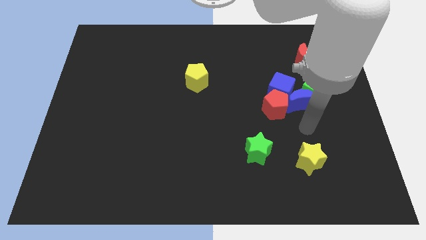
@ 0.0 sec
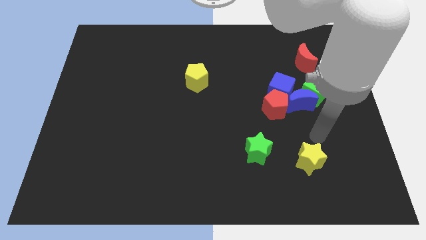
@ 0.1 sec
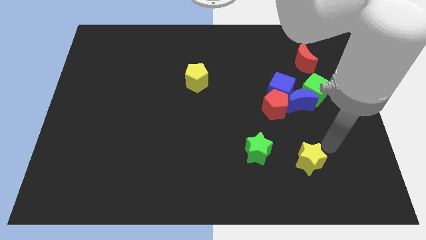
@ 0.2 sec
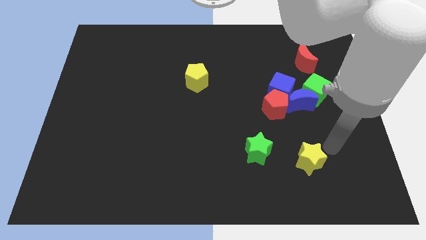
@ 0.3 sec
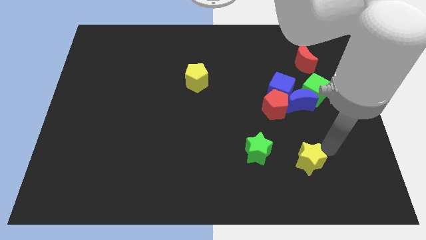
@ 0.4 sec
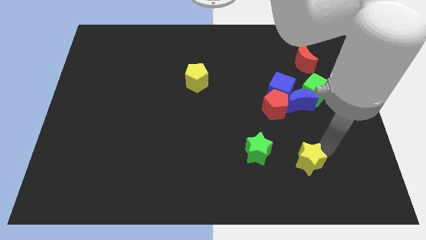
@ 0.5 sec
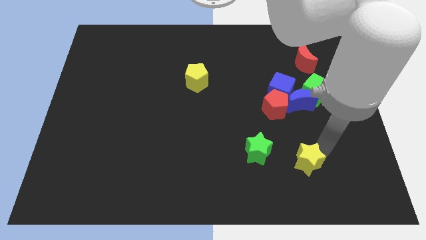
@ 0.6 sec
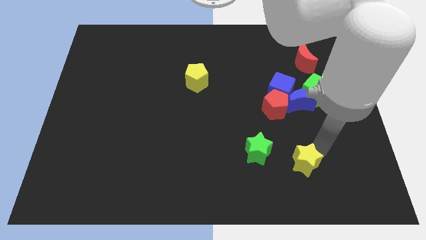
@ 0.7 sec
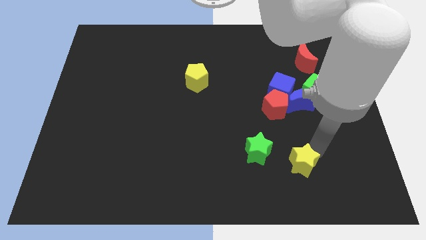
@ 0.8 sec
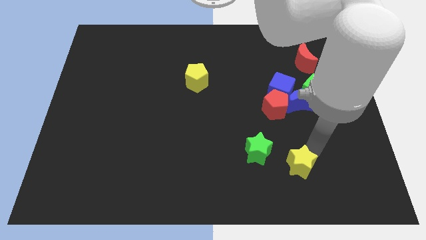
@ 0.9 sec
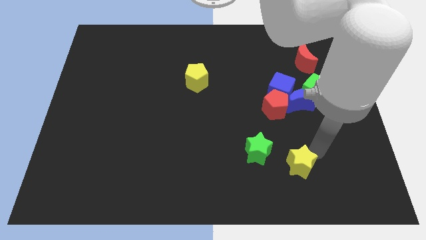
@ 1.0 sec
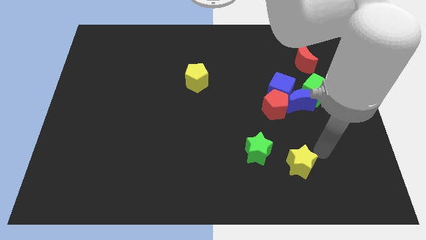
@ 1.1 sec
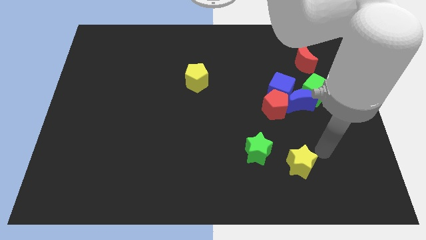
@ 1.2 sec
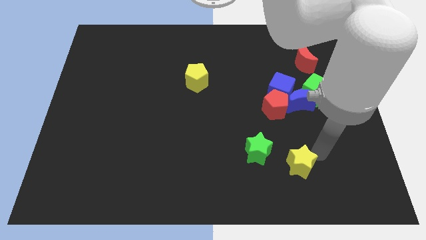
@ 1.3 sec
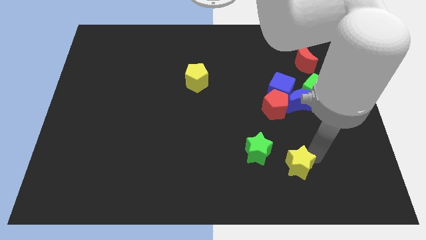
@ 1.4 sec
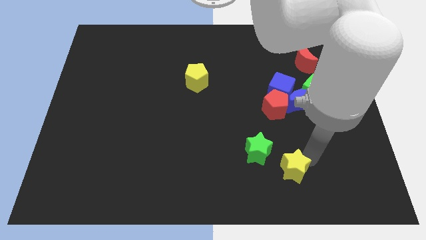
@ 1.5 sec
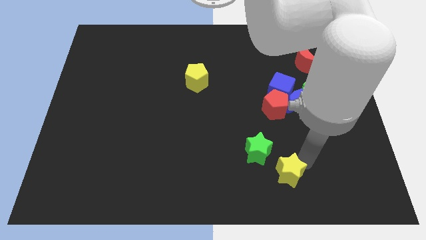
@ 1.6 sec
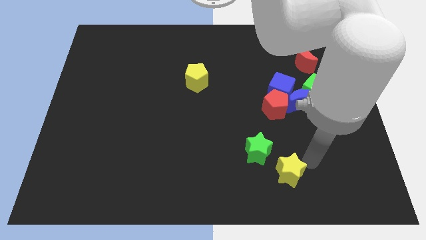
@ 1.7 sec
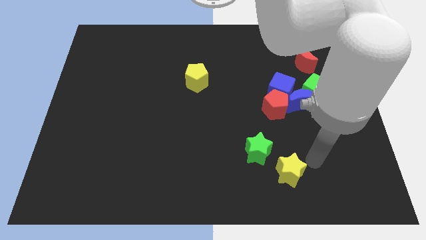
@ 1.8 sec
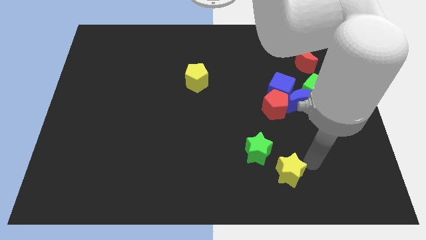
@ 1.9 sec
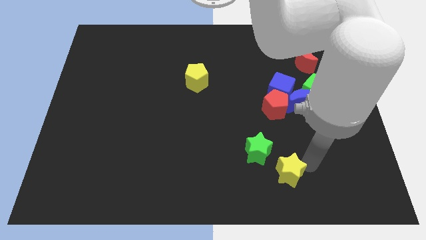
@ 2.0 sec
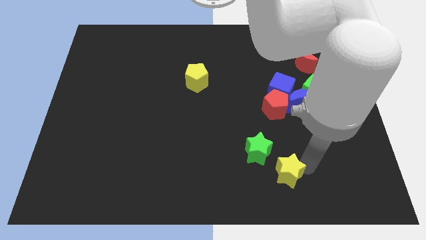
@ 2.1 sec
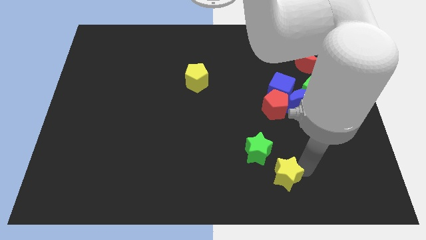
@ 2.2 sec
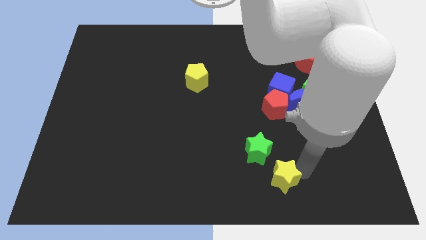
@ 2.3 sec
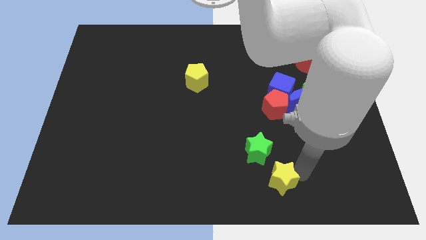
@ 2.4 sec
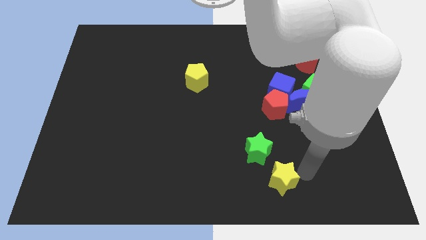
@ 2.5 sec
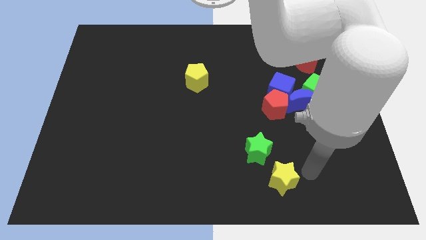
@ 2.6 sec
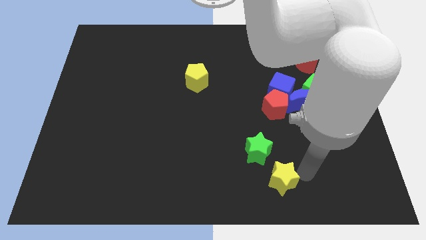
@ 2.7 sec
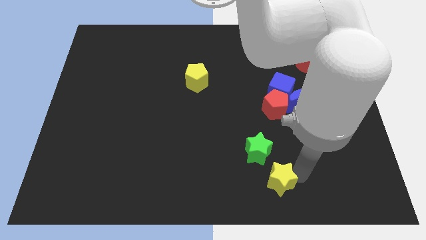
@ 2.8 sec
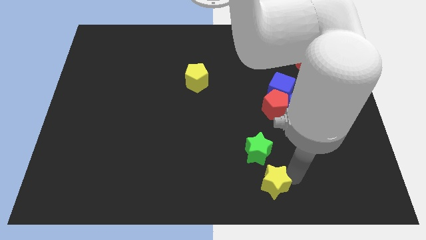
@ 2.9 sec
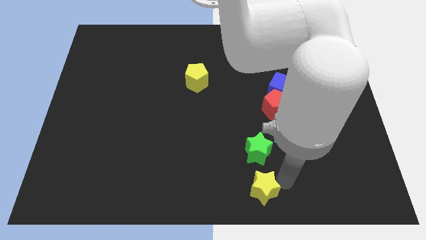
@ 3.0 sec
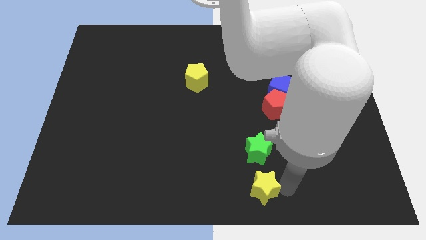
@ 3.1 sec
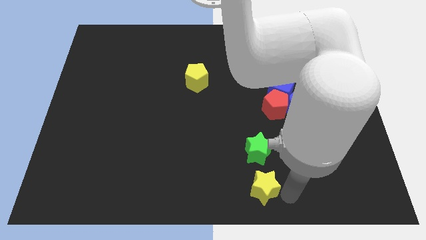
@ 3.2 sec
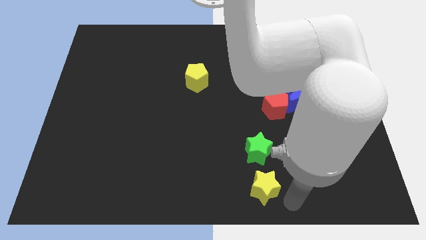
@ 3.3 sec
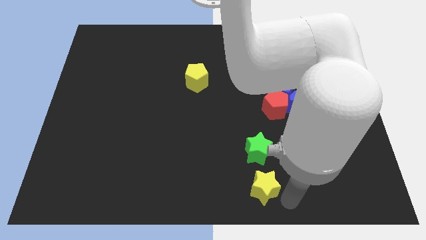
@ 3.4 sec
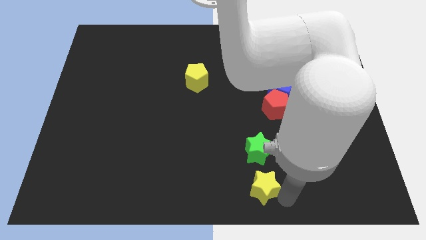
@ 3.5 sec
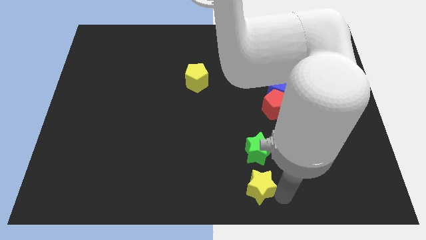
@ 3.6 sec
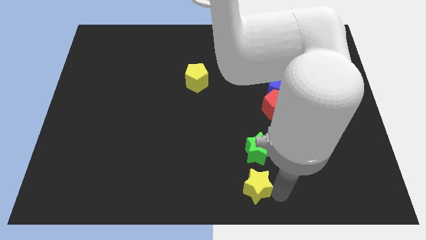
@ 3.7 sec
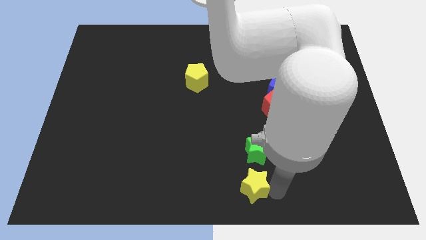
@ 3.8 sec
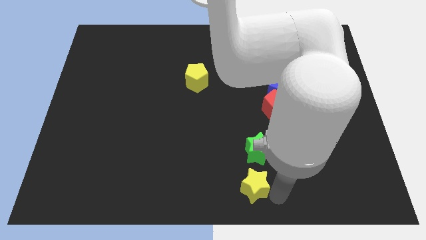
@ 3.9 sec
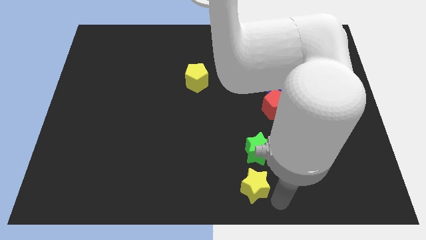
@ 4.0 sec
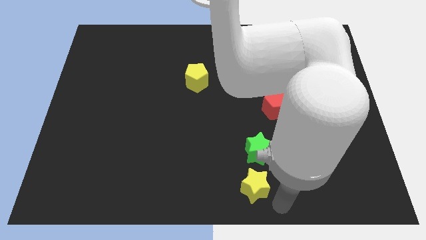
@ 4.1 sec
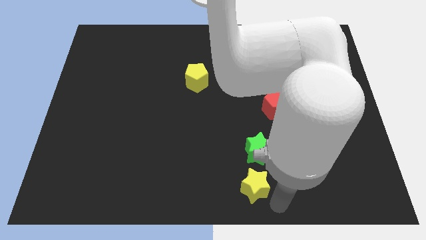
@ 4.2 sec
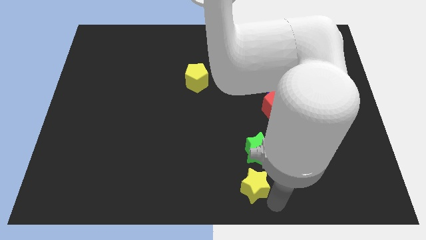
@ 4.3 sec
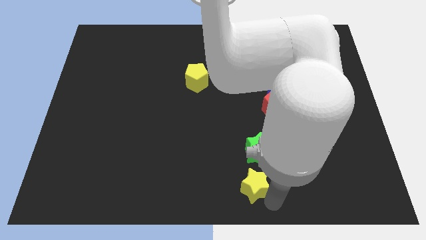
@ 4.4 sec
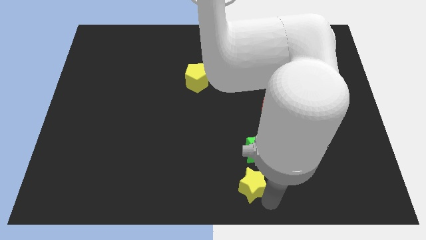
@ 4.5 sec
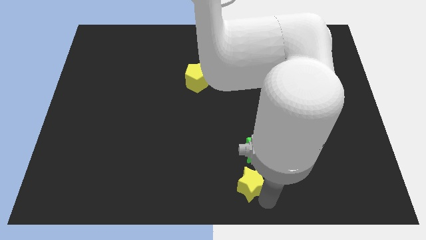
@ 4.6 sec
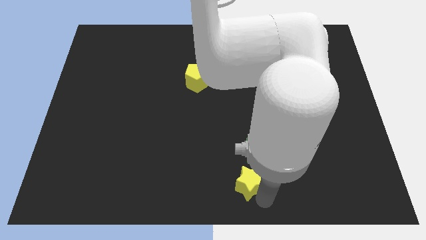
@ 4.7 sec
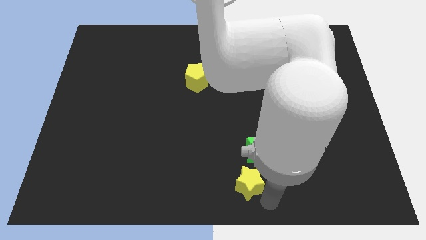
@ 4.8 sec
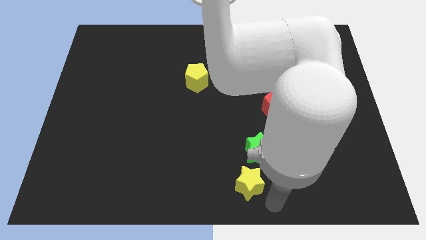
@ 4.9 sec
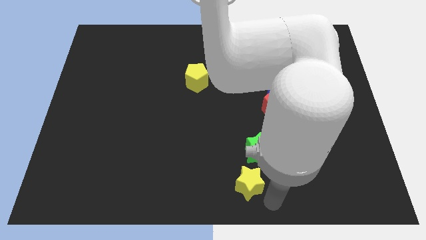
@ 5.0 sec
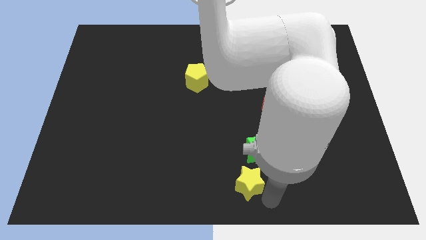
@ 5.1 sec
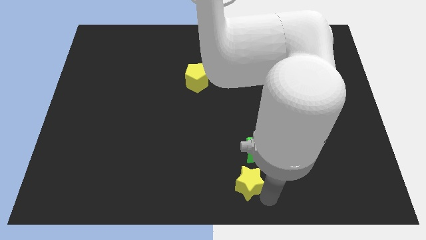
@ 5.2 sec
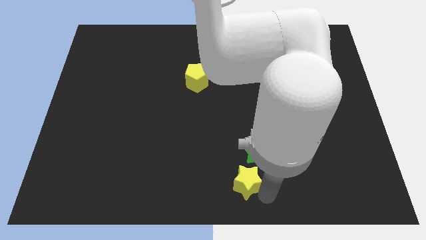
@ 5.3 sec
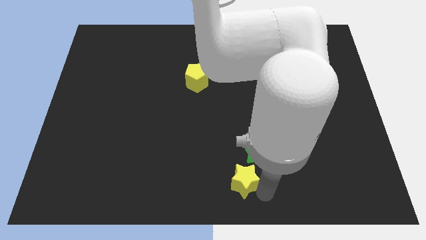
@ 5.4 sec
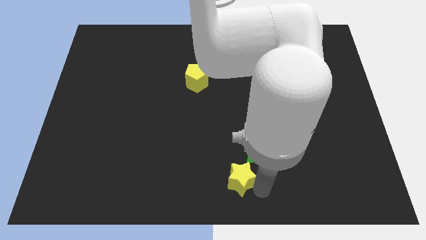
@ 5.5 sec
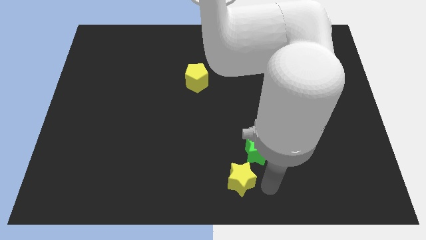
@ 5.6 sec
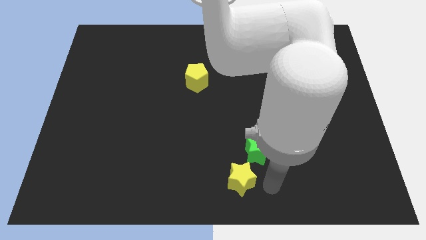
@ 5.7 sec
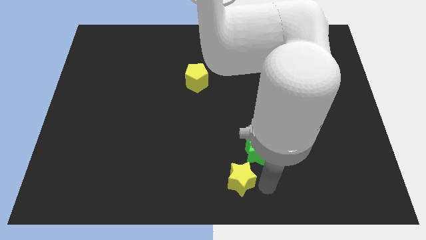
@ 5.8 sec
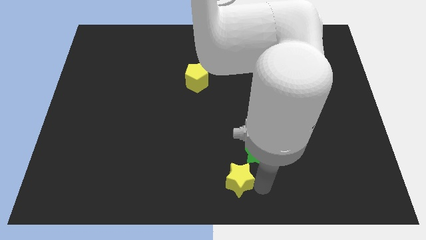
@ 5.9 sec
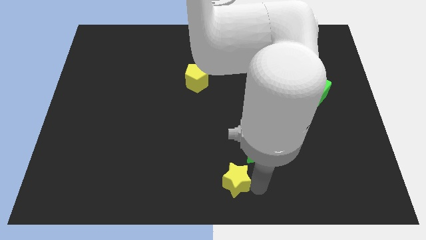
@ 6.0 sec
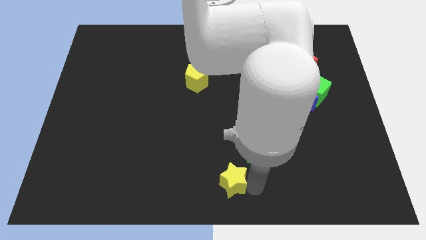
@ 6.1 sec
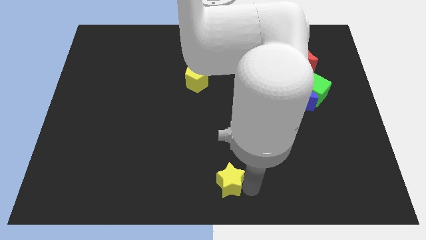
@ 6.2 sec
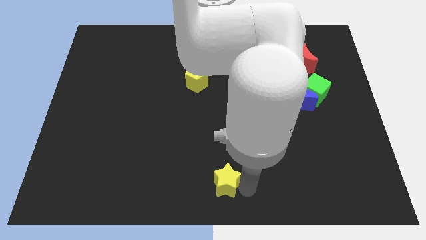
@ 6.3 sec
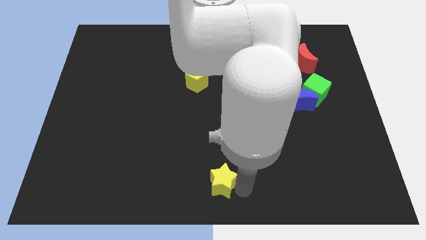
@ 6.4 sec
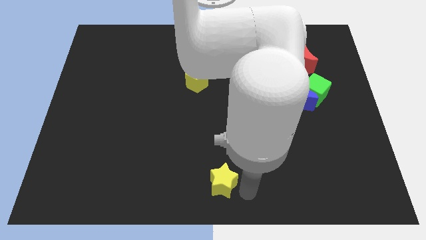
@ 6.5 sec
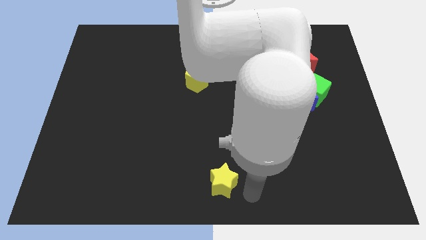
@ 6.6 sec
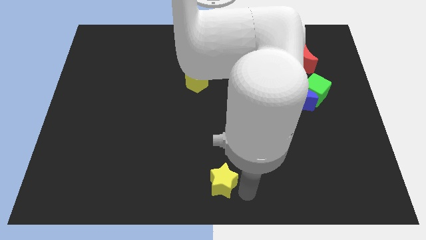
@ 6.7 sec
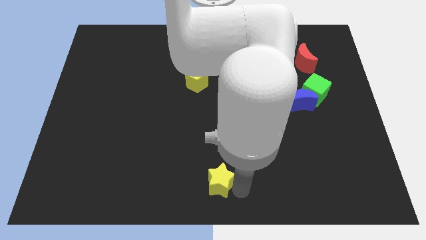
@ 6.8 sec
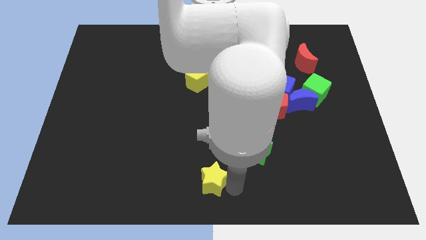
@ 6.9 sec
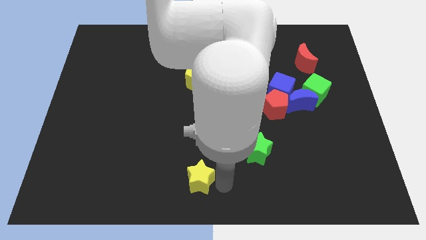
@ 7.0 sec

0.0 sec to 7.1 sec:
slide the yellow star to the left

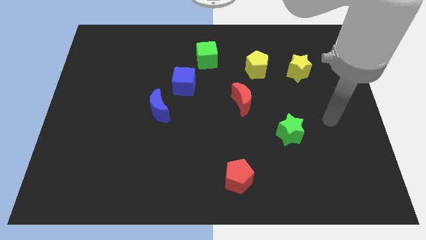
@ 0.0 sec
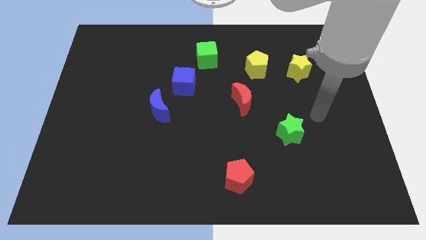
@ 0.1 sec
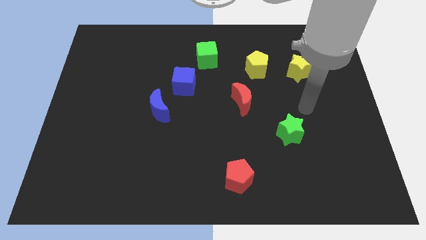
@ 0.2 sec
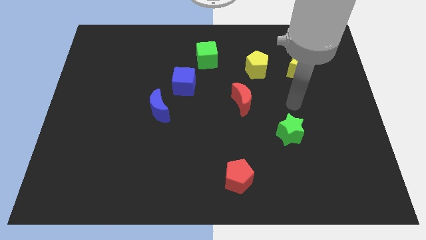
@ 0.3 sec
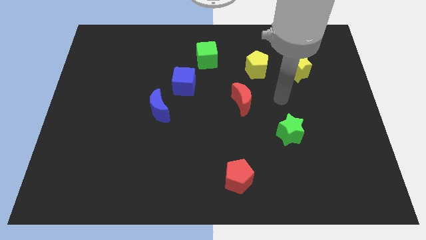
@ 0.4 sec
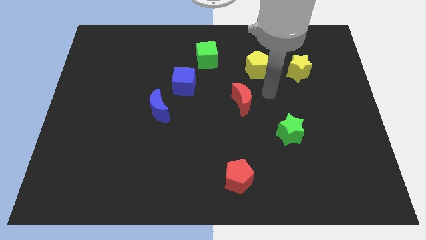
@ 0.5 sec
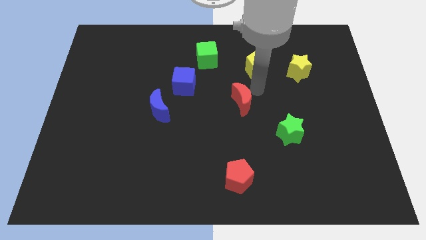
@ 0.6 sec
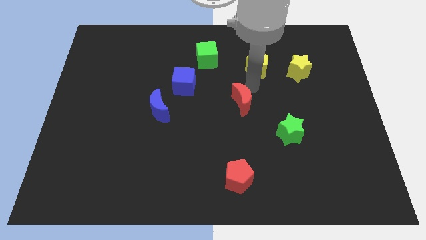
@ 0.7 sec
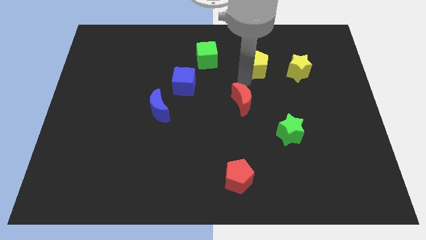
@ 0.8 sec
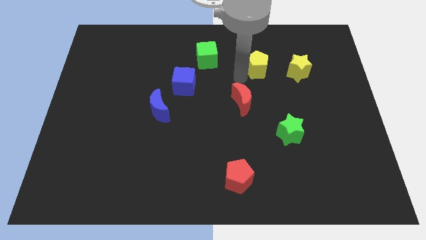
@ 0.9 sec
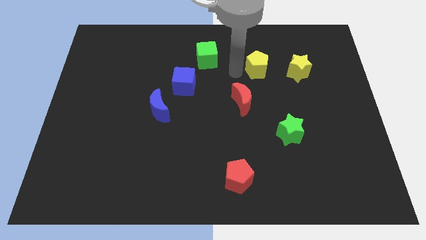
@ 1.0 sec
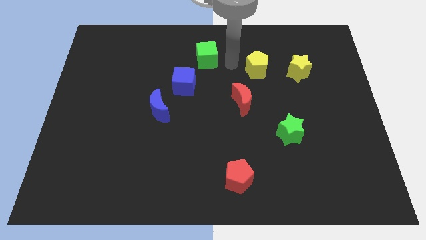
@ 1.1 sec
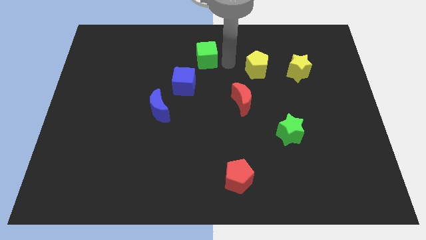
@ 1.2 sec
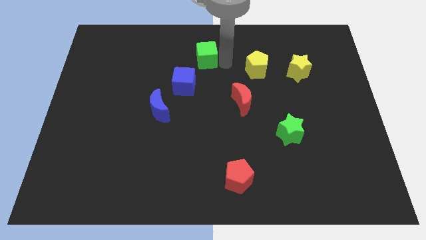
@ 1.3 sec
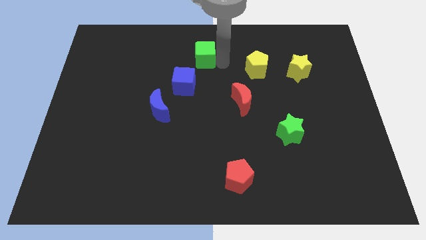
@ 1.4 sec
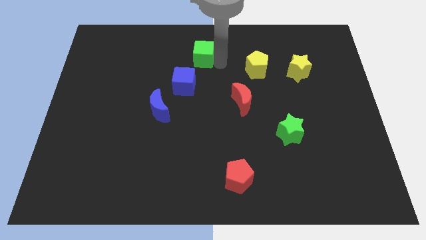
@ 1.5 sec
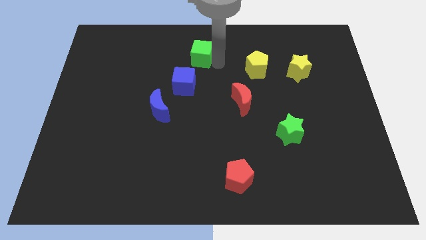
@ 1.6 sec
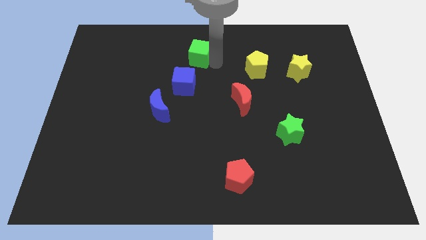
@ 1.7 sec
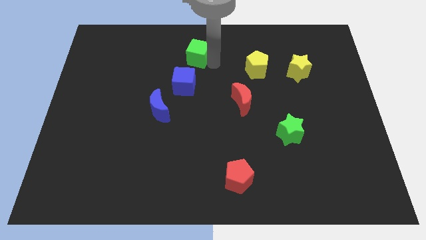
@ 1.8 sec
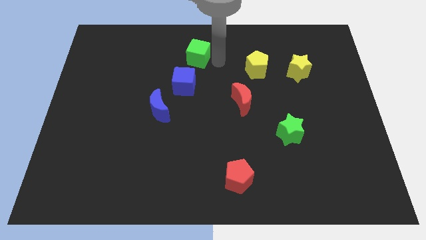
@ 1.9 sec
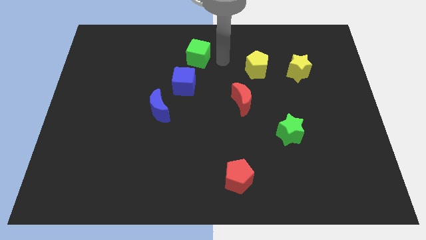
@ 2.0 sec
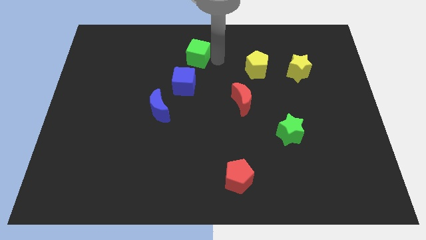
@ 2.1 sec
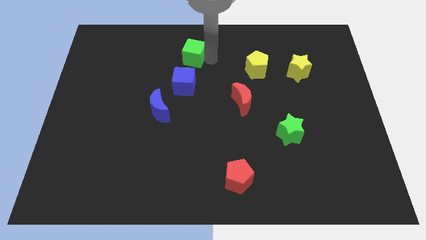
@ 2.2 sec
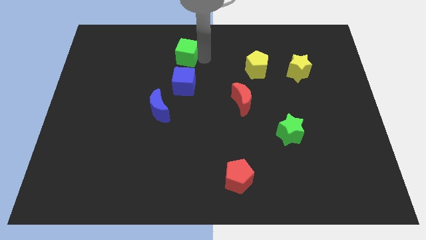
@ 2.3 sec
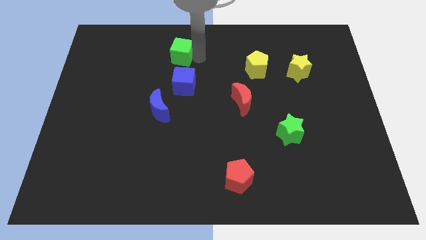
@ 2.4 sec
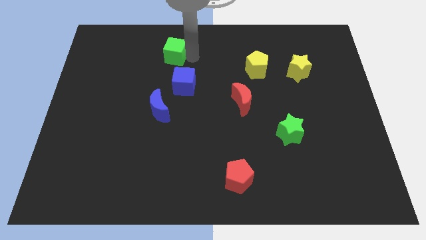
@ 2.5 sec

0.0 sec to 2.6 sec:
push the green cube to the left a little
